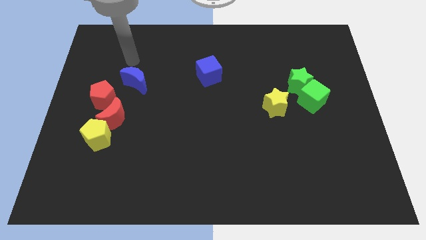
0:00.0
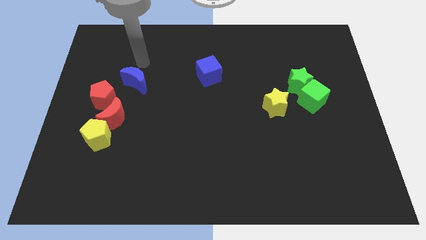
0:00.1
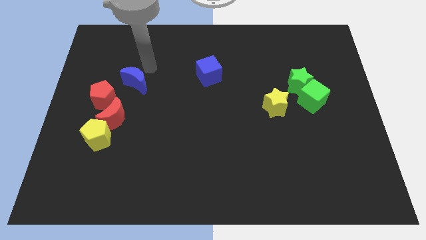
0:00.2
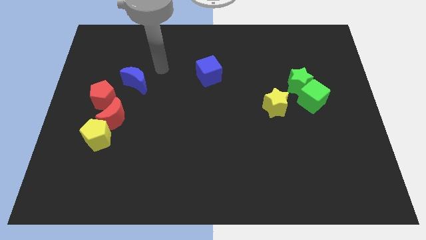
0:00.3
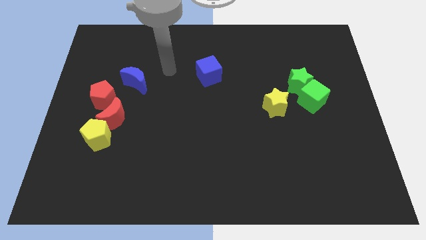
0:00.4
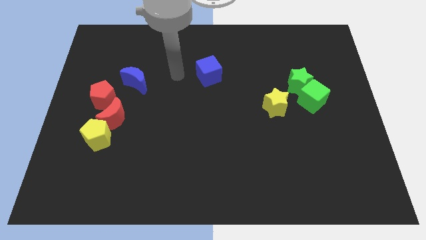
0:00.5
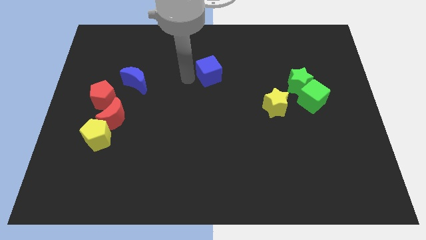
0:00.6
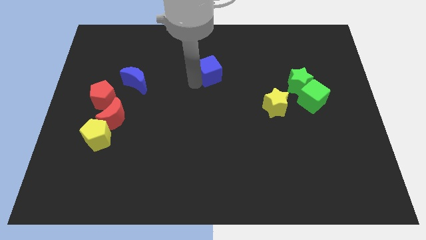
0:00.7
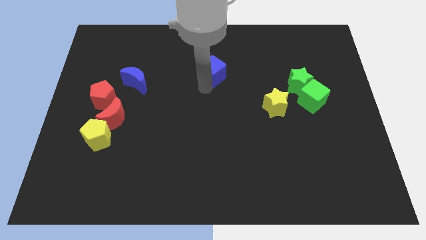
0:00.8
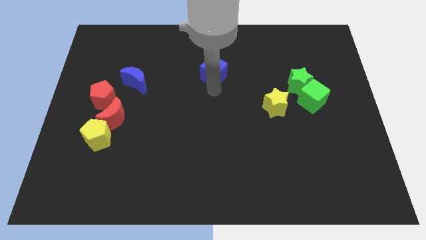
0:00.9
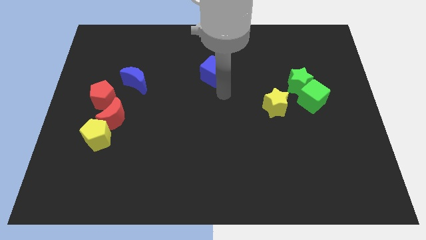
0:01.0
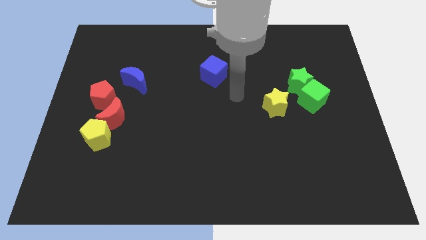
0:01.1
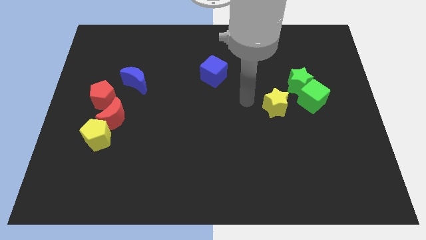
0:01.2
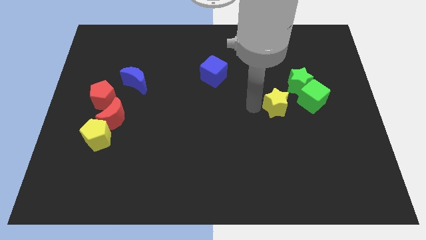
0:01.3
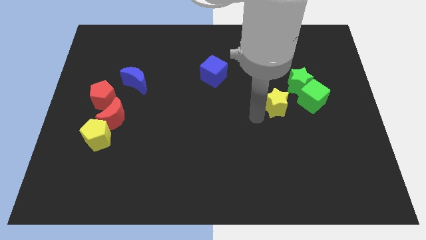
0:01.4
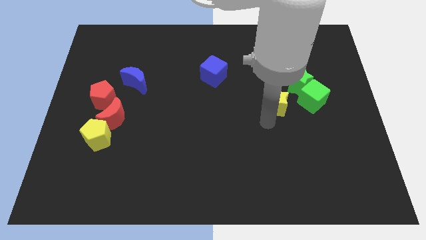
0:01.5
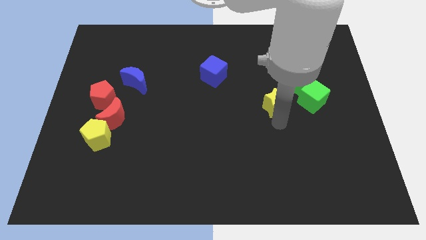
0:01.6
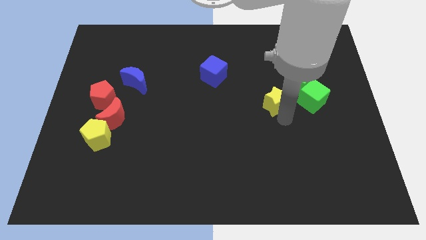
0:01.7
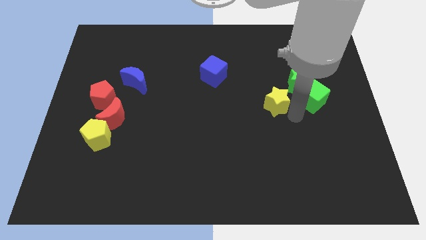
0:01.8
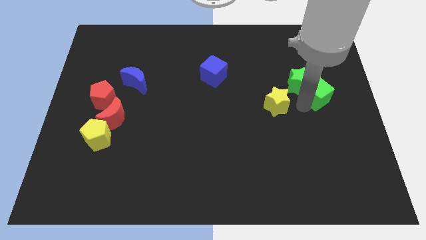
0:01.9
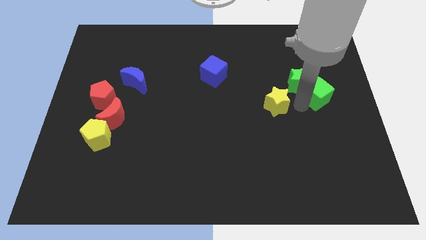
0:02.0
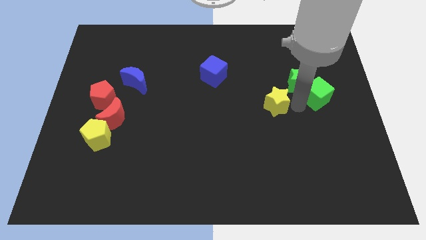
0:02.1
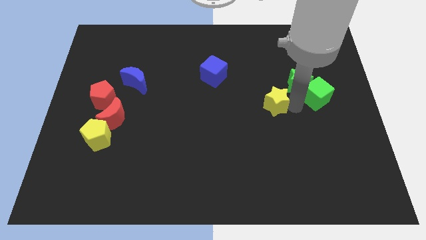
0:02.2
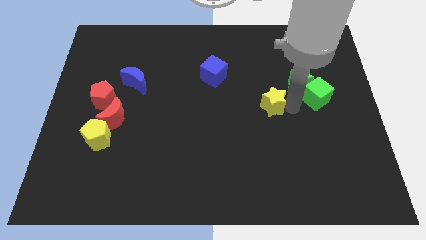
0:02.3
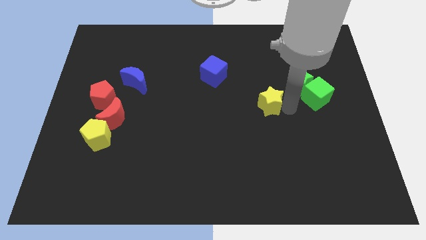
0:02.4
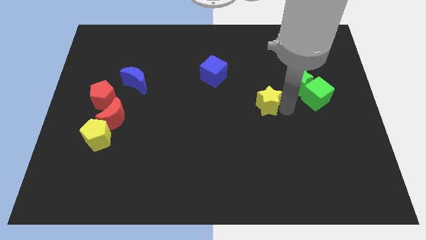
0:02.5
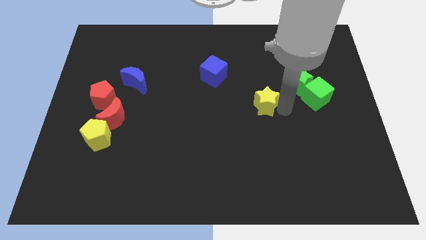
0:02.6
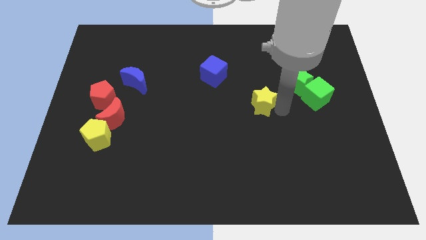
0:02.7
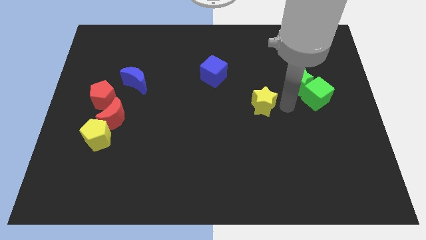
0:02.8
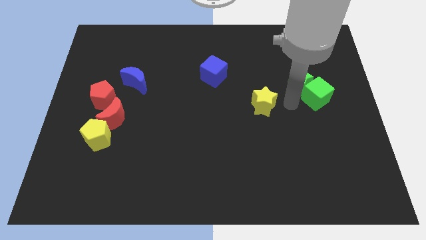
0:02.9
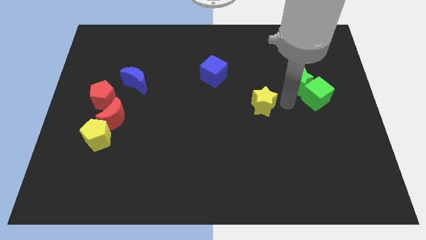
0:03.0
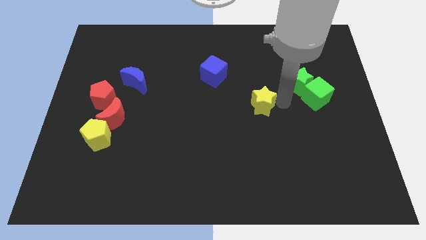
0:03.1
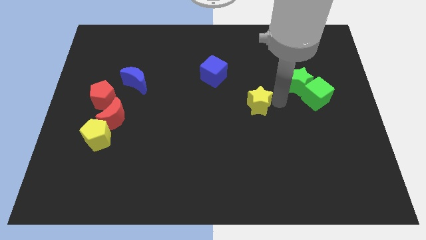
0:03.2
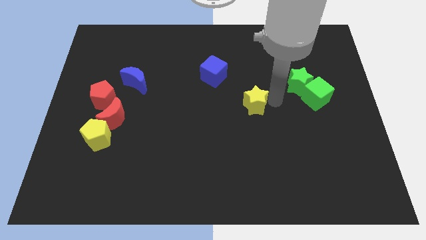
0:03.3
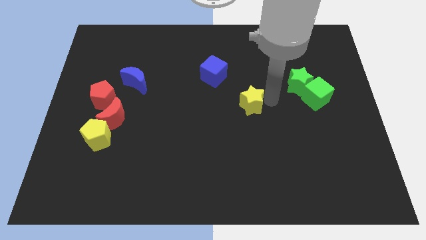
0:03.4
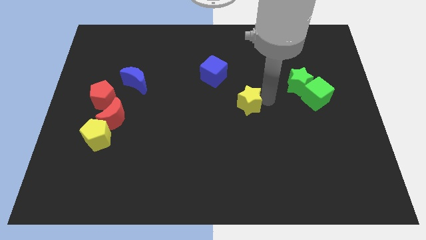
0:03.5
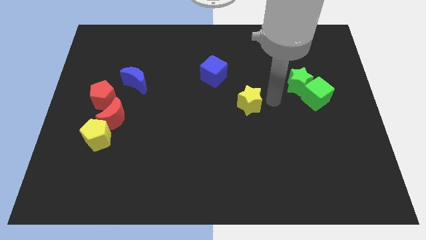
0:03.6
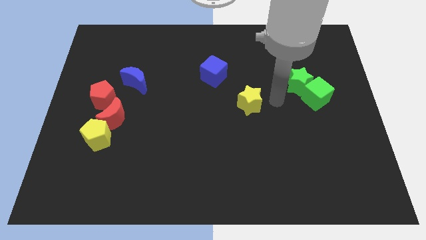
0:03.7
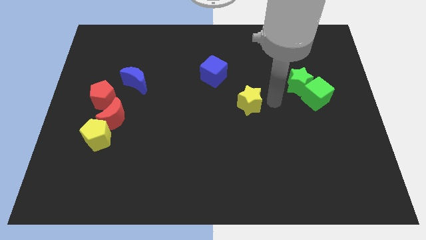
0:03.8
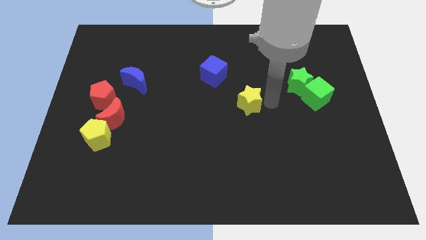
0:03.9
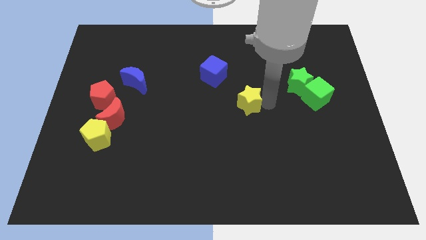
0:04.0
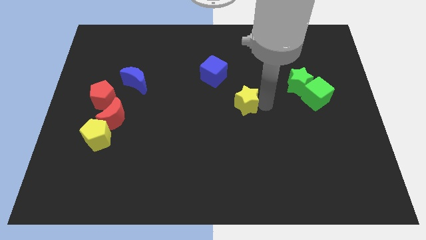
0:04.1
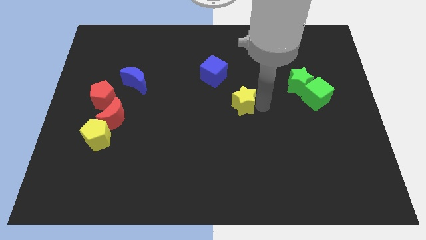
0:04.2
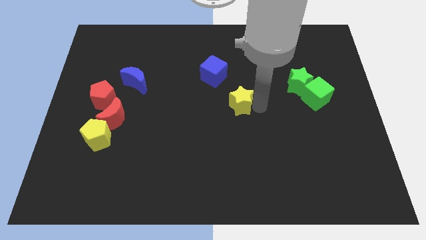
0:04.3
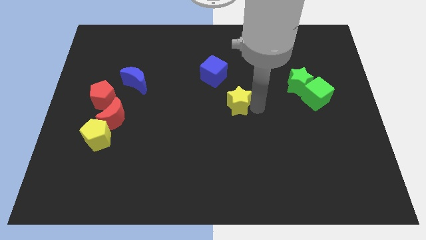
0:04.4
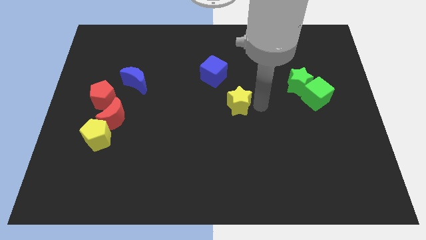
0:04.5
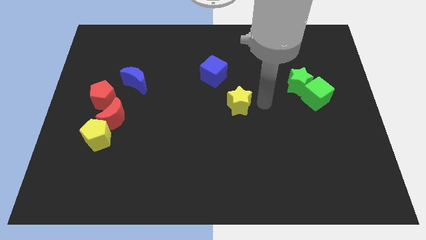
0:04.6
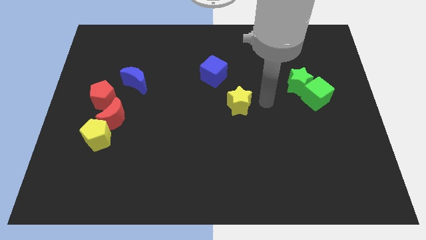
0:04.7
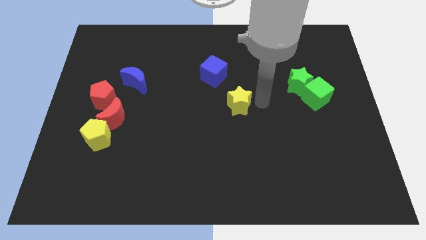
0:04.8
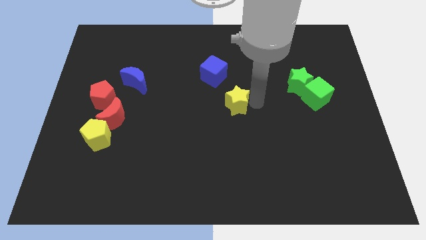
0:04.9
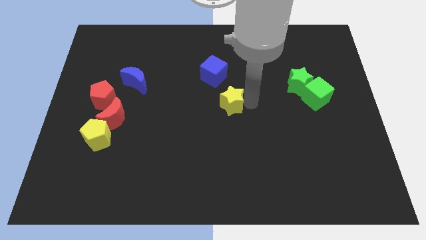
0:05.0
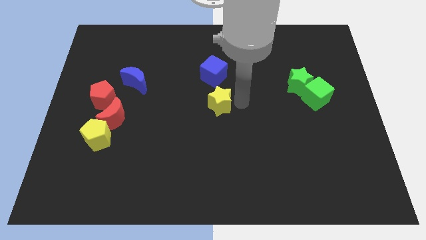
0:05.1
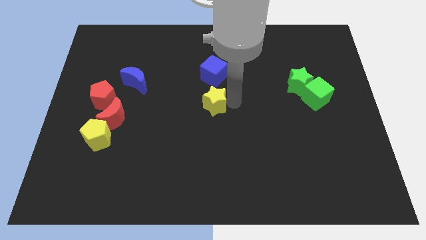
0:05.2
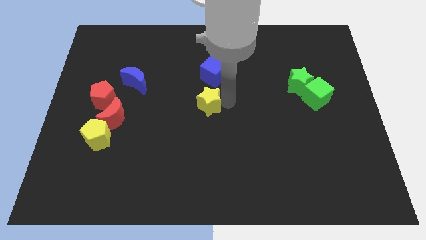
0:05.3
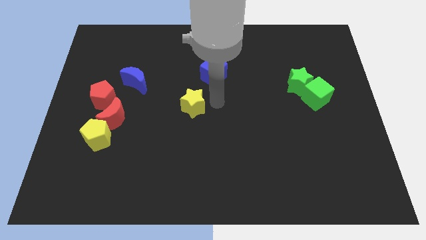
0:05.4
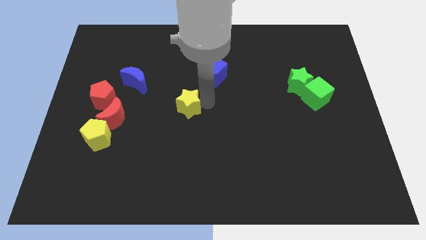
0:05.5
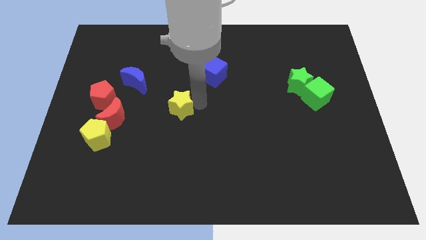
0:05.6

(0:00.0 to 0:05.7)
slide the yellow star just right of the red moon

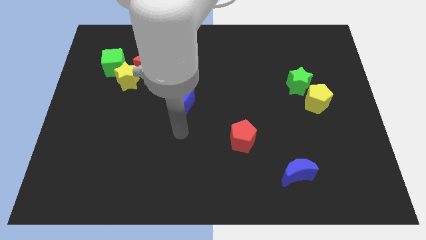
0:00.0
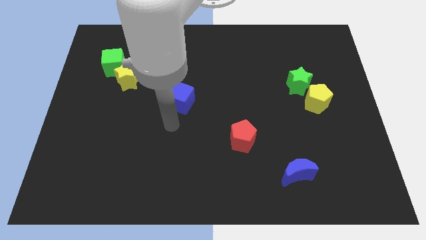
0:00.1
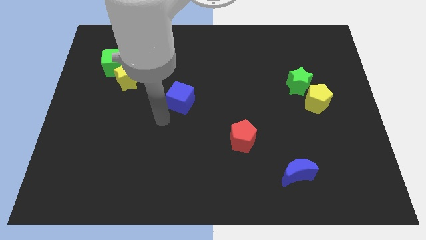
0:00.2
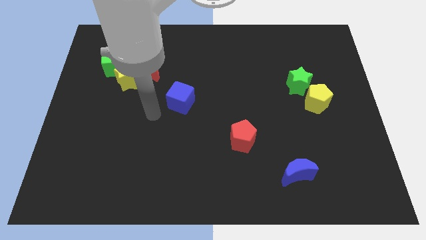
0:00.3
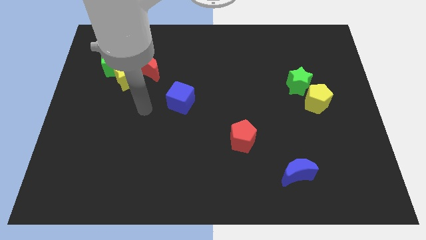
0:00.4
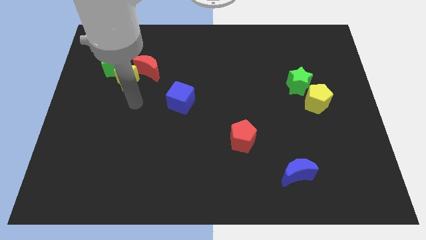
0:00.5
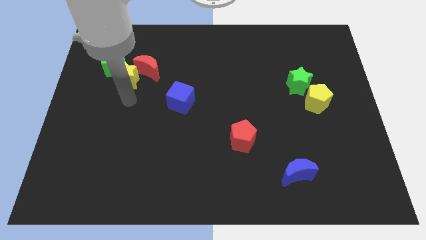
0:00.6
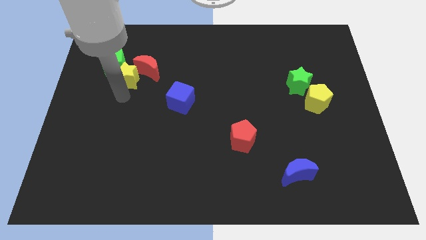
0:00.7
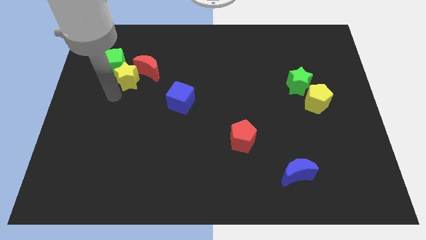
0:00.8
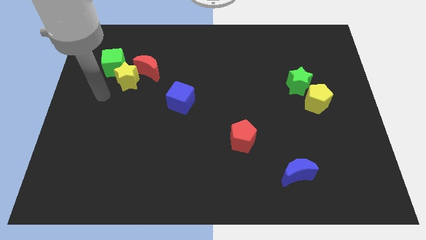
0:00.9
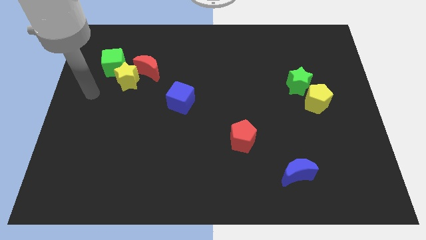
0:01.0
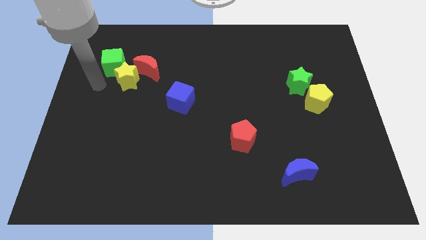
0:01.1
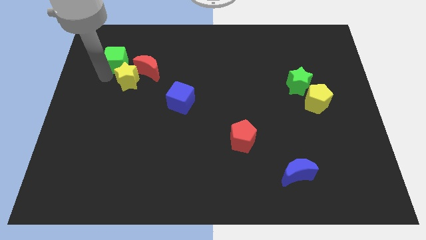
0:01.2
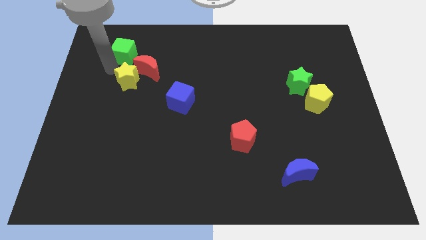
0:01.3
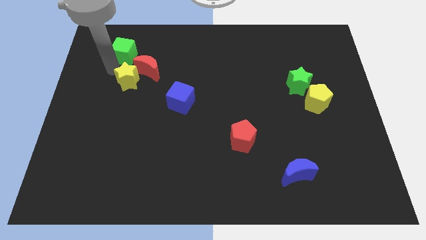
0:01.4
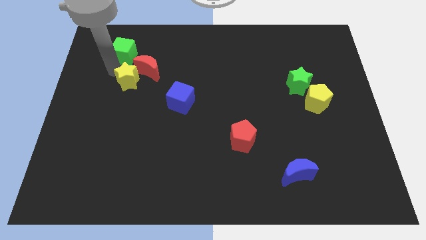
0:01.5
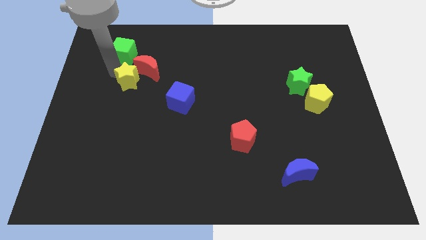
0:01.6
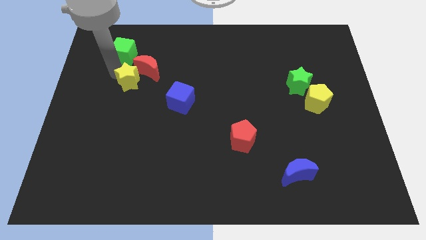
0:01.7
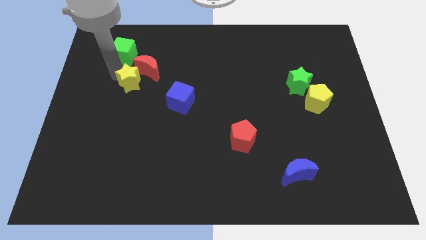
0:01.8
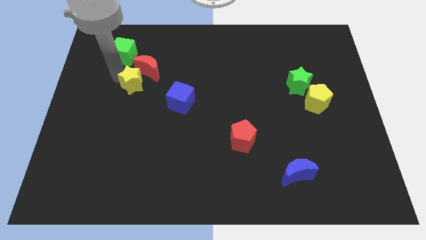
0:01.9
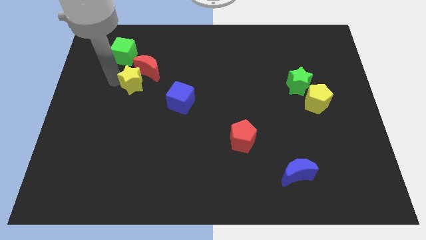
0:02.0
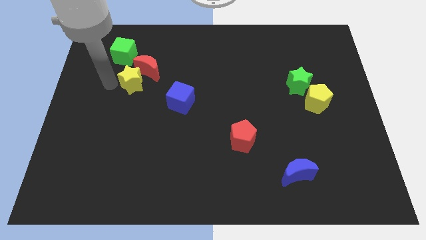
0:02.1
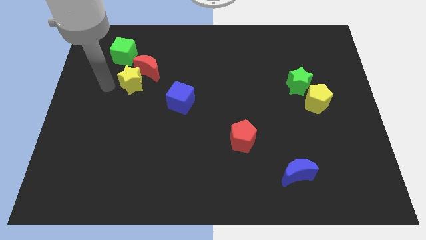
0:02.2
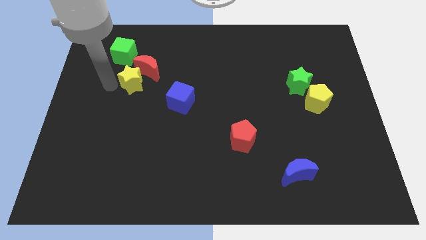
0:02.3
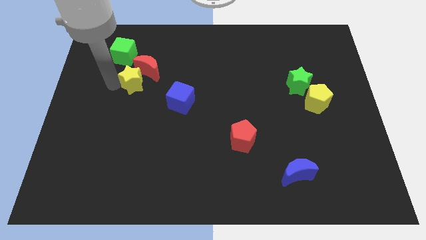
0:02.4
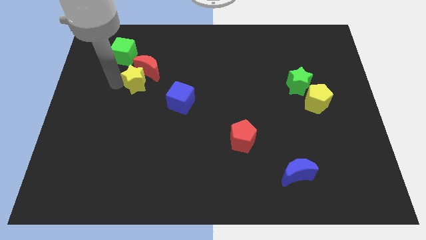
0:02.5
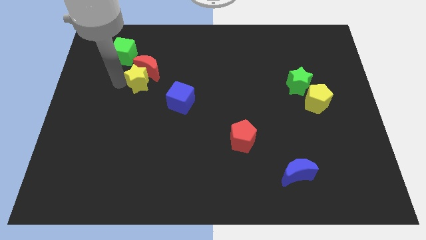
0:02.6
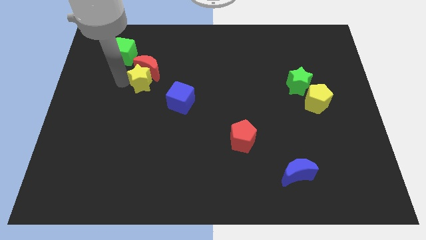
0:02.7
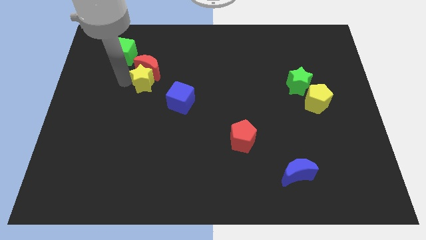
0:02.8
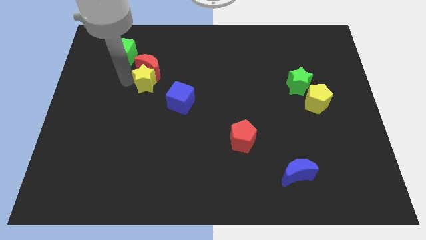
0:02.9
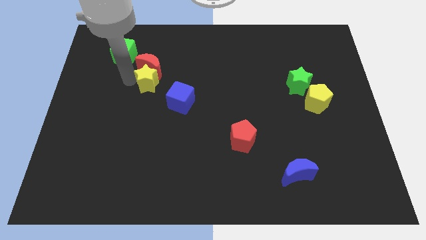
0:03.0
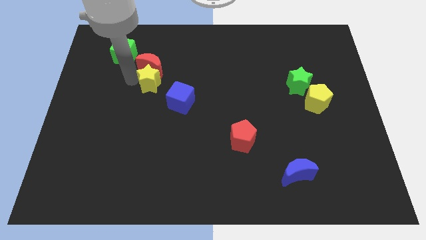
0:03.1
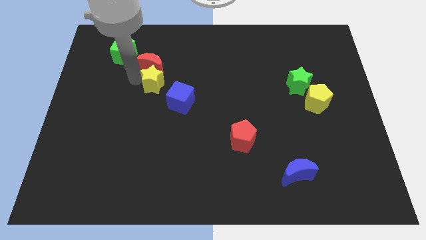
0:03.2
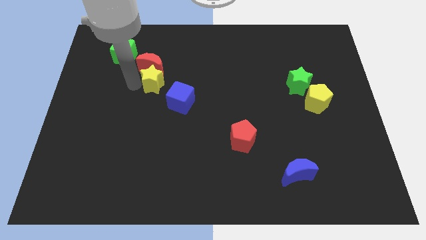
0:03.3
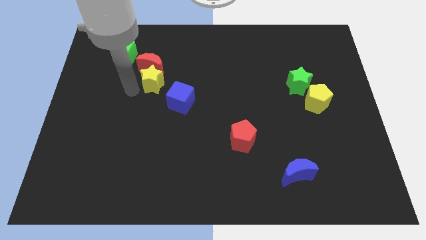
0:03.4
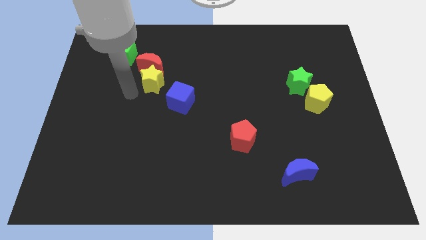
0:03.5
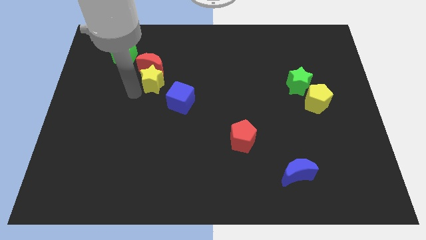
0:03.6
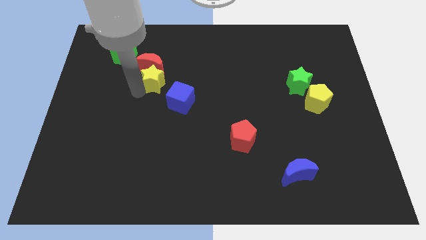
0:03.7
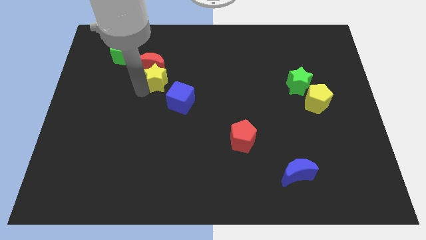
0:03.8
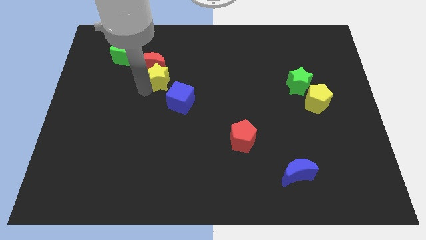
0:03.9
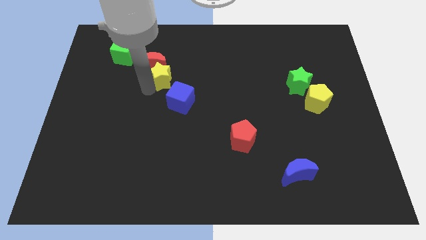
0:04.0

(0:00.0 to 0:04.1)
put the yellow star to the top side of the blue cube
